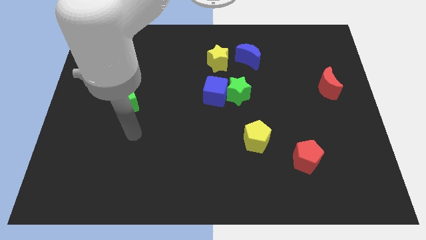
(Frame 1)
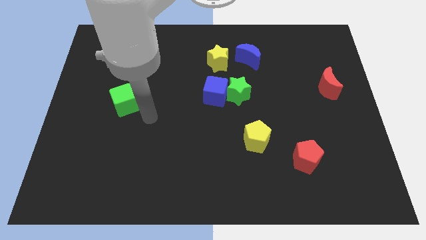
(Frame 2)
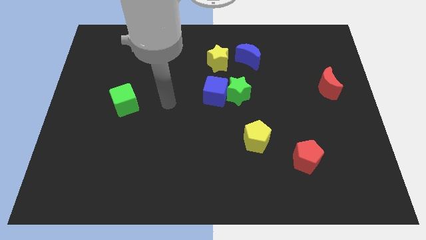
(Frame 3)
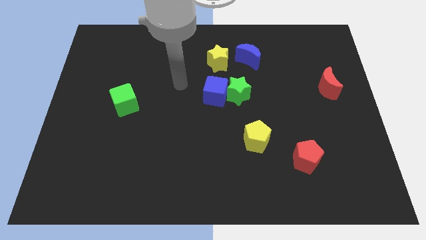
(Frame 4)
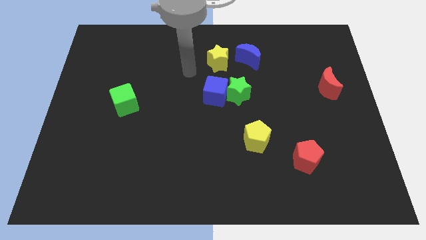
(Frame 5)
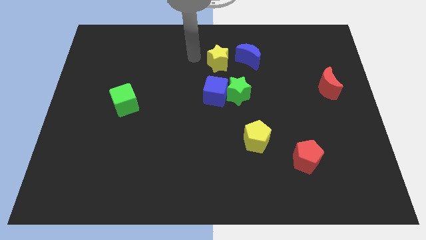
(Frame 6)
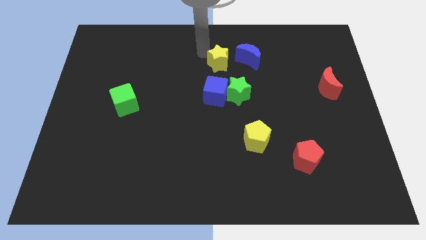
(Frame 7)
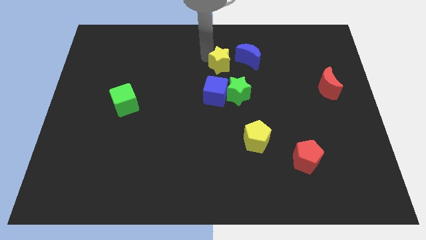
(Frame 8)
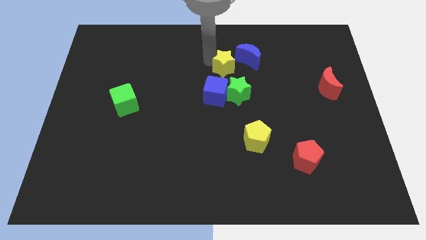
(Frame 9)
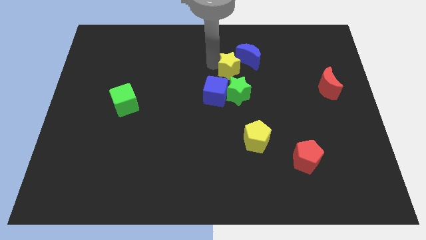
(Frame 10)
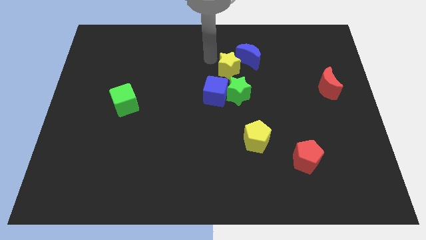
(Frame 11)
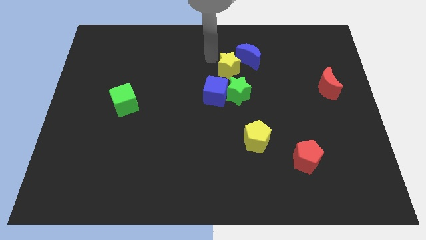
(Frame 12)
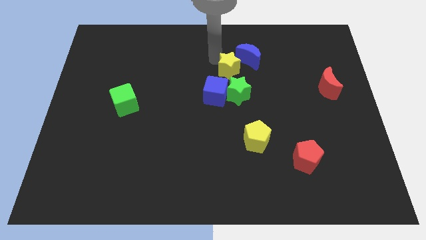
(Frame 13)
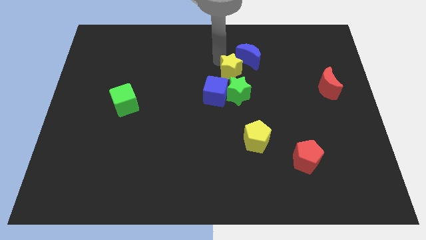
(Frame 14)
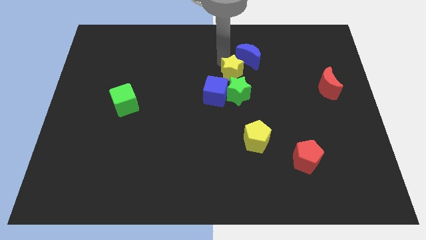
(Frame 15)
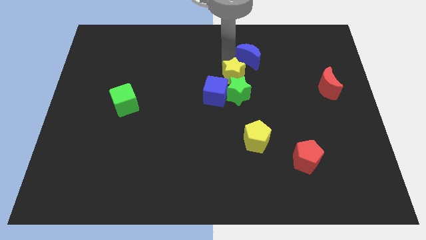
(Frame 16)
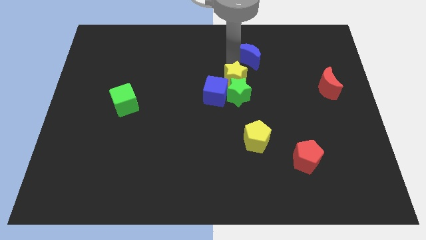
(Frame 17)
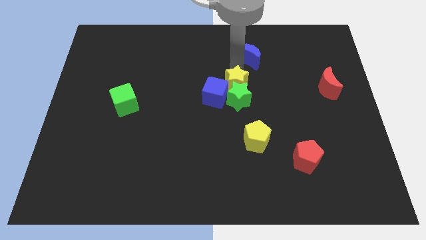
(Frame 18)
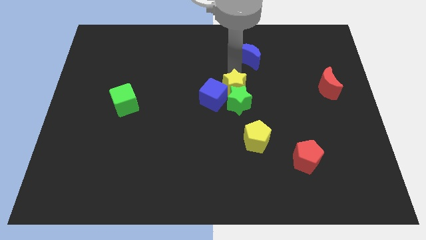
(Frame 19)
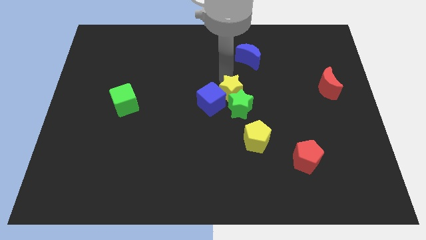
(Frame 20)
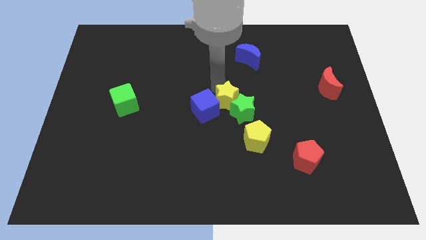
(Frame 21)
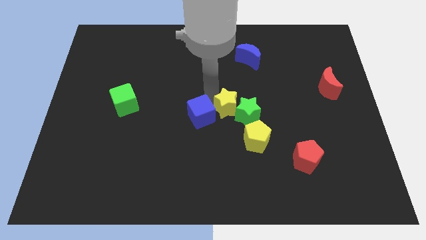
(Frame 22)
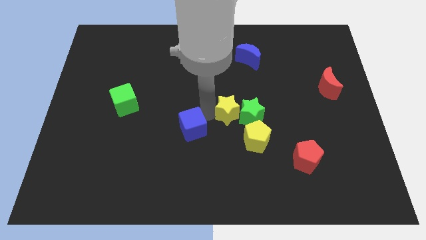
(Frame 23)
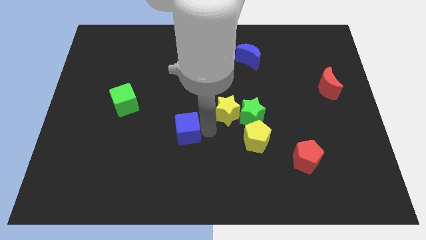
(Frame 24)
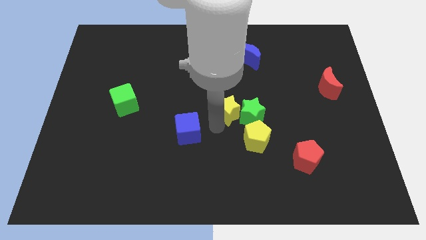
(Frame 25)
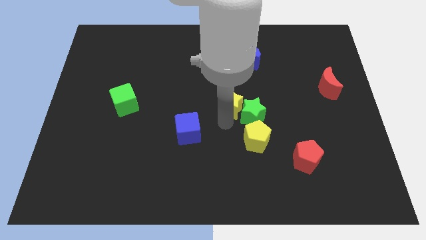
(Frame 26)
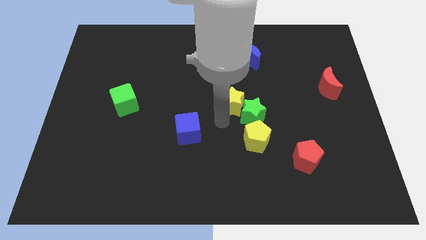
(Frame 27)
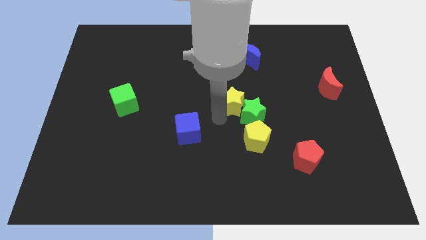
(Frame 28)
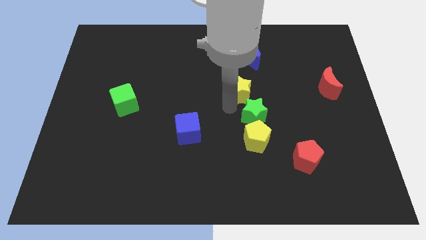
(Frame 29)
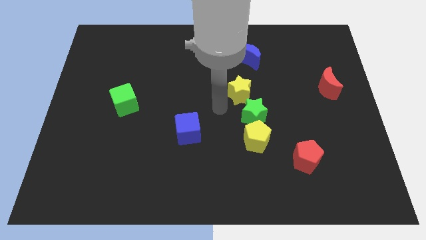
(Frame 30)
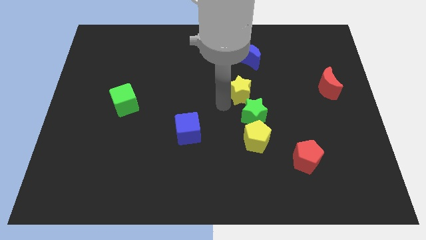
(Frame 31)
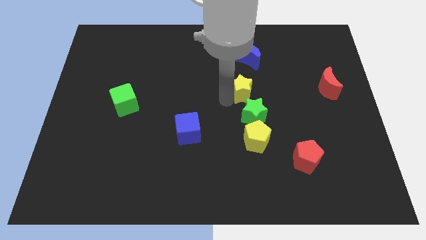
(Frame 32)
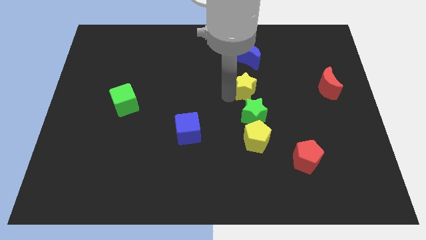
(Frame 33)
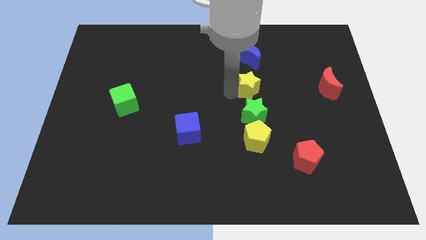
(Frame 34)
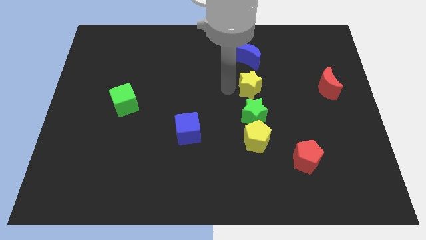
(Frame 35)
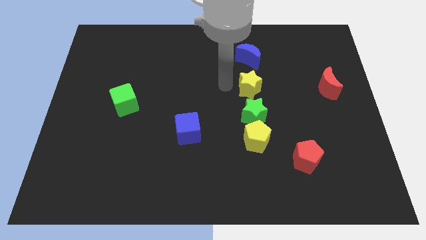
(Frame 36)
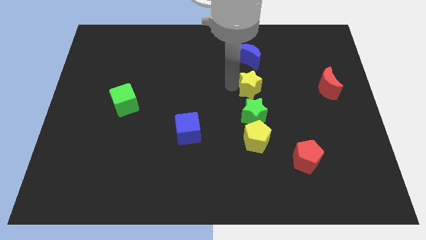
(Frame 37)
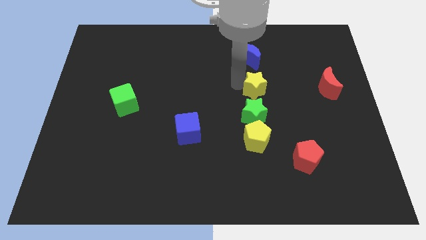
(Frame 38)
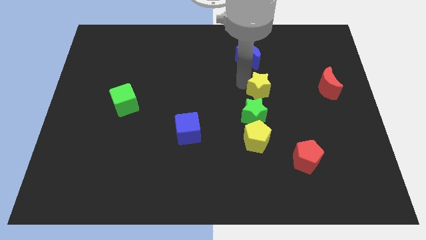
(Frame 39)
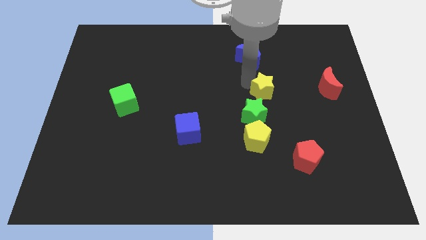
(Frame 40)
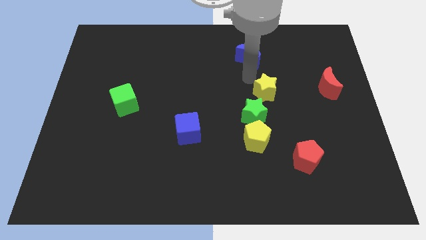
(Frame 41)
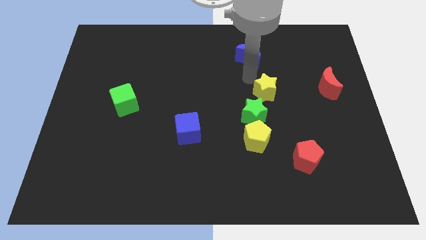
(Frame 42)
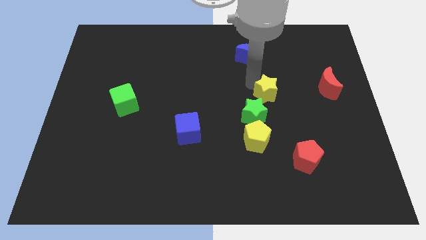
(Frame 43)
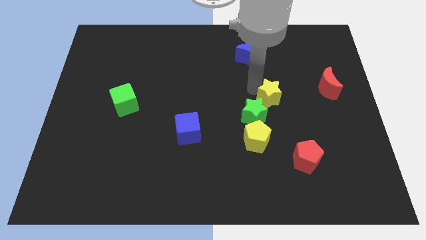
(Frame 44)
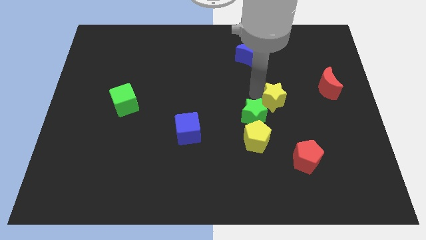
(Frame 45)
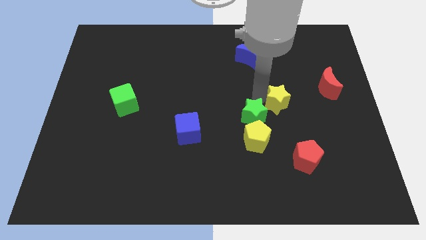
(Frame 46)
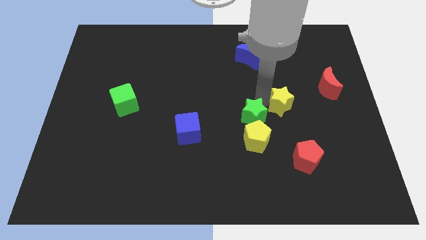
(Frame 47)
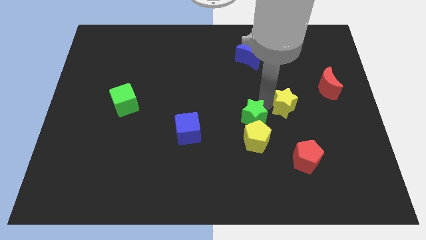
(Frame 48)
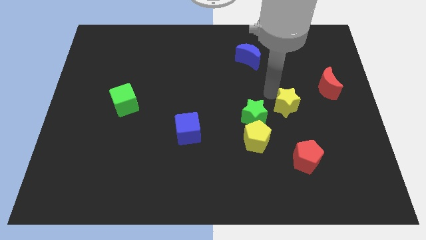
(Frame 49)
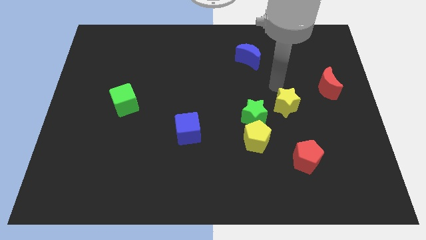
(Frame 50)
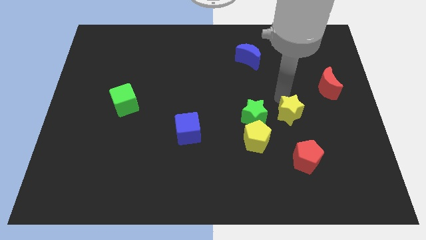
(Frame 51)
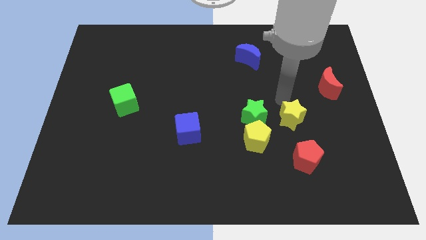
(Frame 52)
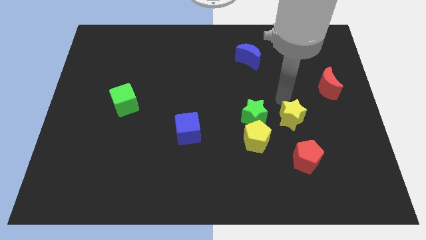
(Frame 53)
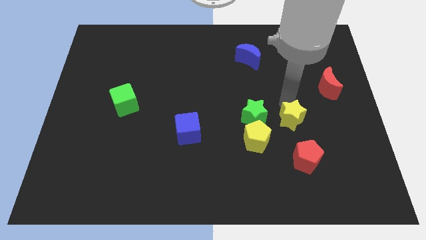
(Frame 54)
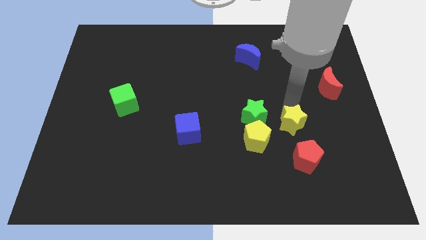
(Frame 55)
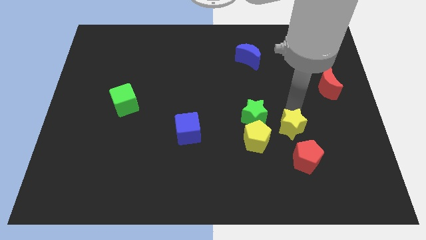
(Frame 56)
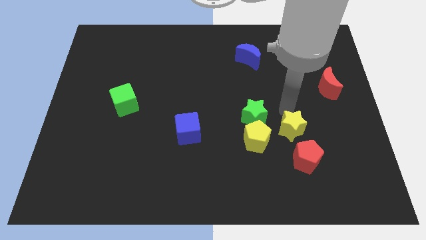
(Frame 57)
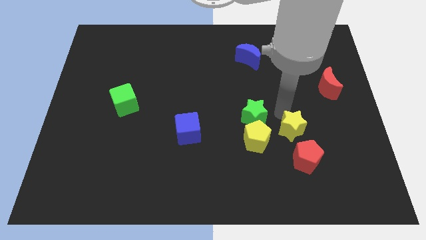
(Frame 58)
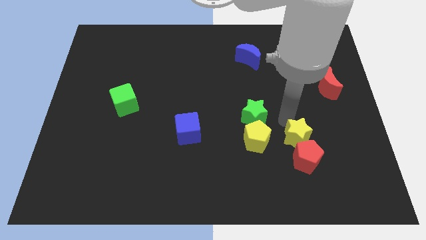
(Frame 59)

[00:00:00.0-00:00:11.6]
push the yellow star next to the red pentagon

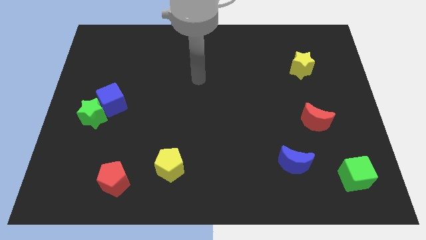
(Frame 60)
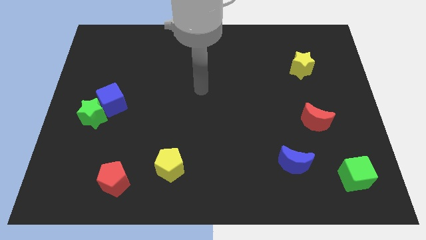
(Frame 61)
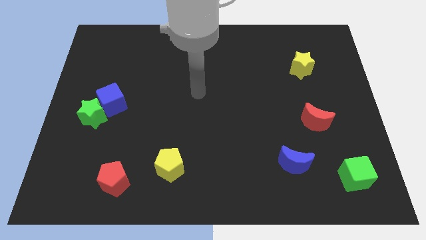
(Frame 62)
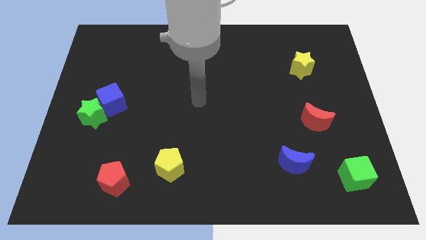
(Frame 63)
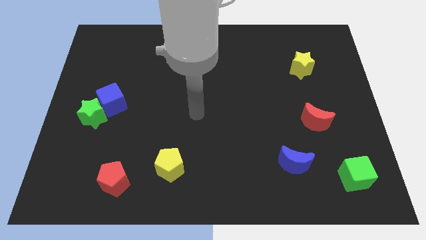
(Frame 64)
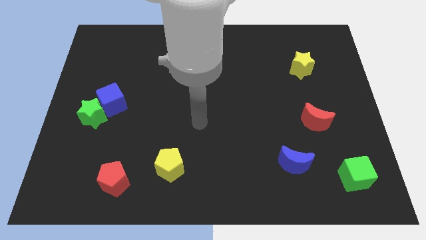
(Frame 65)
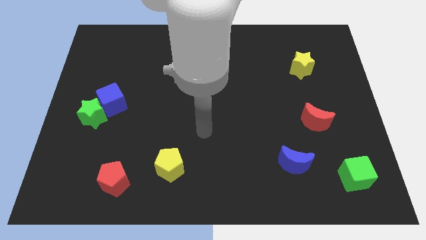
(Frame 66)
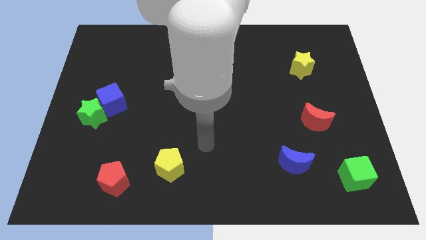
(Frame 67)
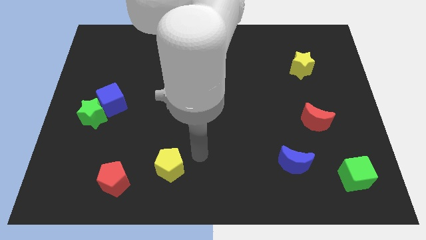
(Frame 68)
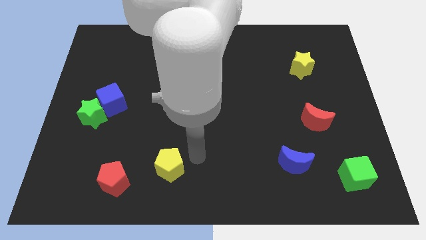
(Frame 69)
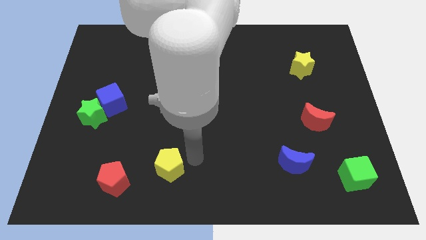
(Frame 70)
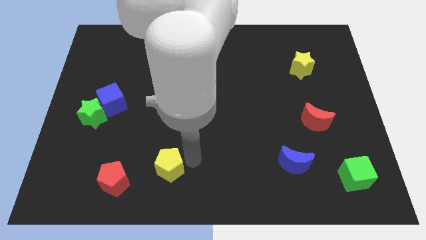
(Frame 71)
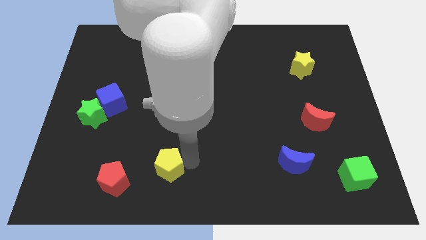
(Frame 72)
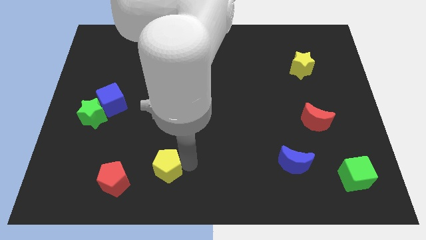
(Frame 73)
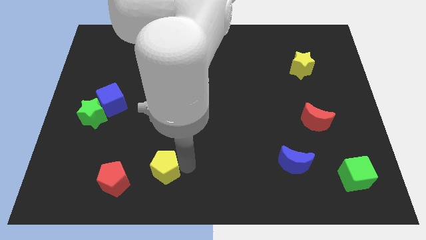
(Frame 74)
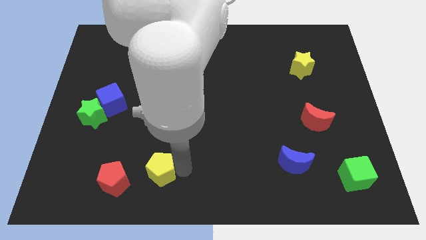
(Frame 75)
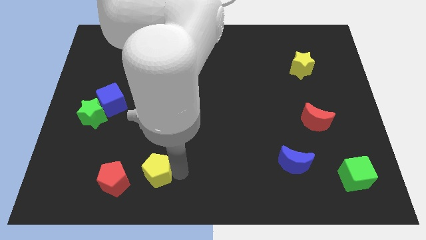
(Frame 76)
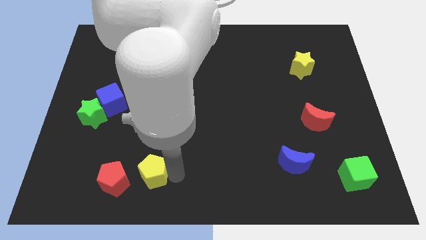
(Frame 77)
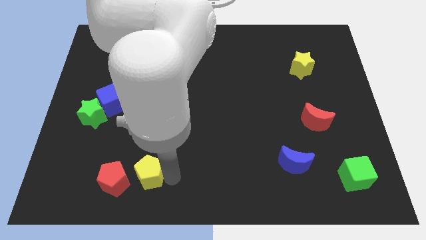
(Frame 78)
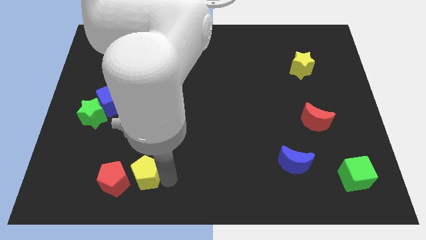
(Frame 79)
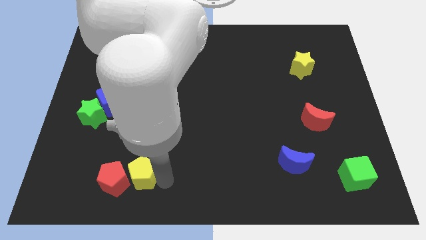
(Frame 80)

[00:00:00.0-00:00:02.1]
move the yellow pentagon to the red pentagon

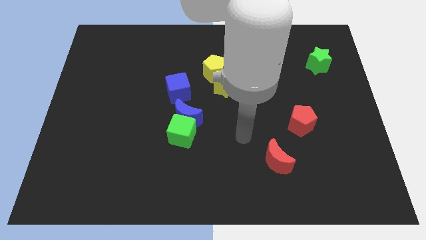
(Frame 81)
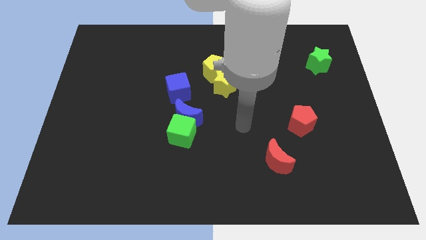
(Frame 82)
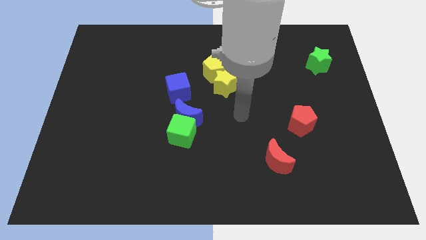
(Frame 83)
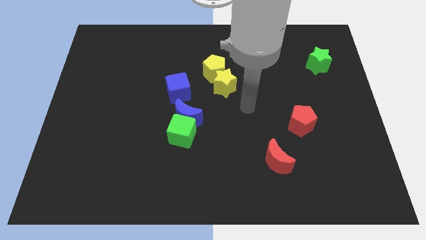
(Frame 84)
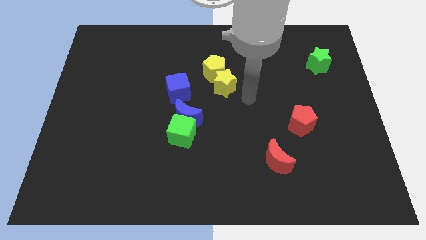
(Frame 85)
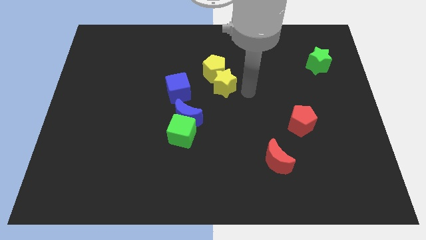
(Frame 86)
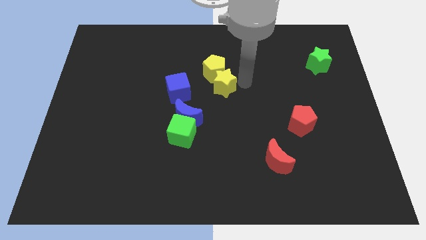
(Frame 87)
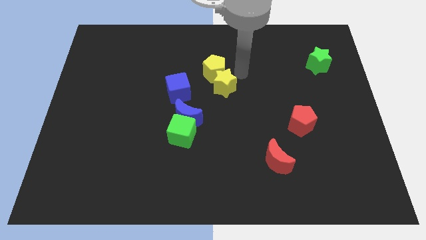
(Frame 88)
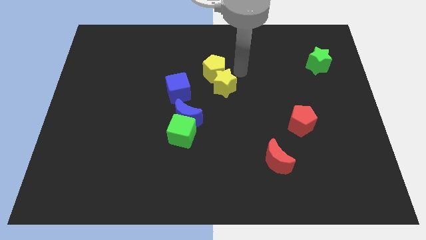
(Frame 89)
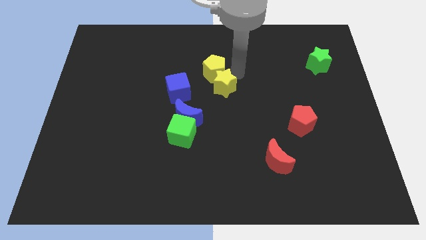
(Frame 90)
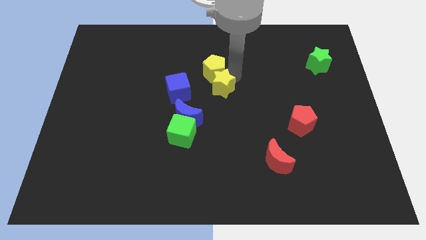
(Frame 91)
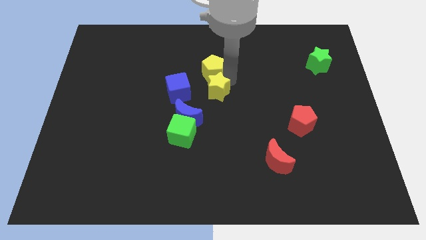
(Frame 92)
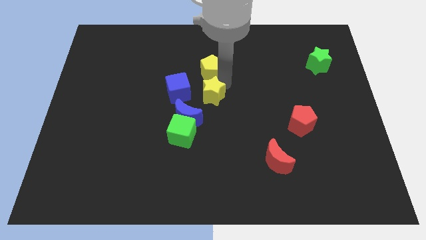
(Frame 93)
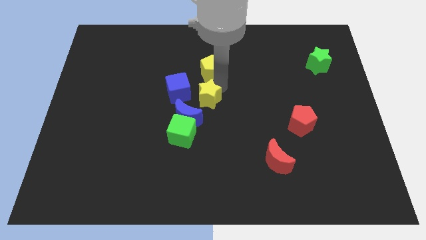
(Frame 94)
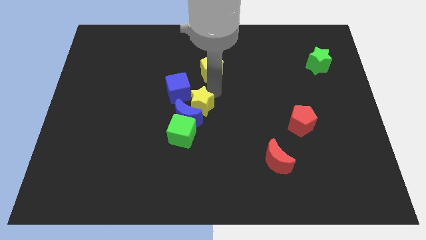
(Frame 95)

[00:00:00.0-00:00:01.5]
move the yellow star to the blue moon
